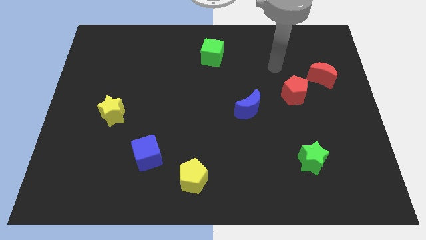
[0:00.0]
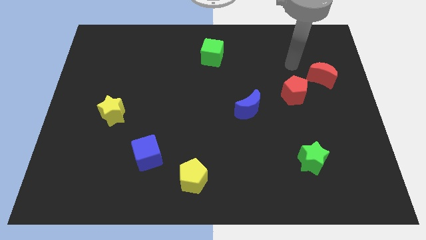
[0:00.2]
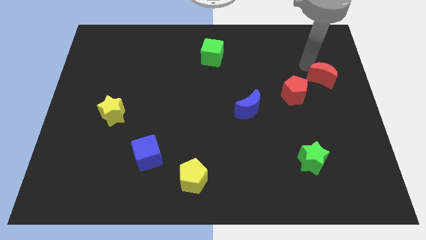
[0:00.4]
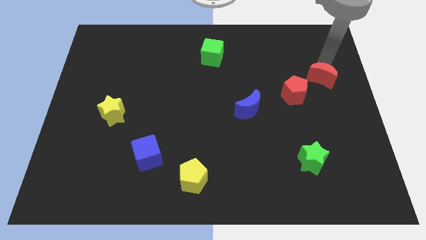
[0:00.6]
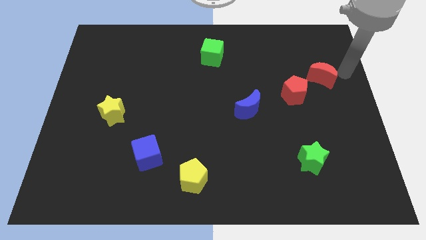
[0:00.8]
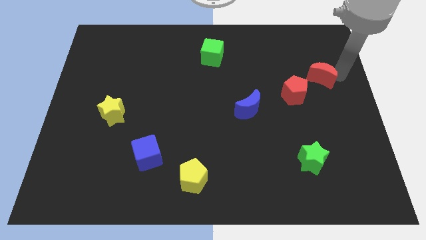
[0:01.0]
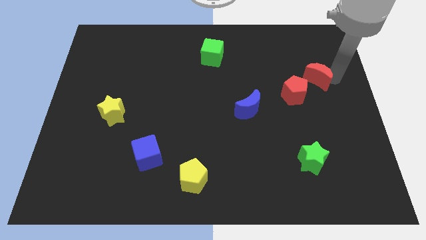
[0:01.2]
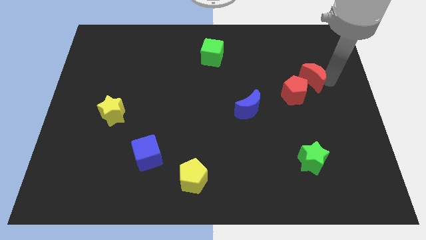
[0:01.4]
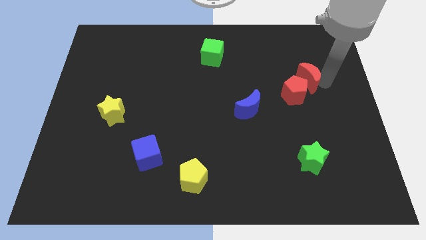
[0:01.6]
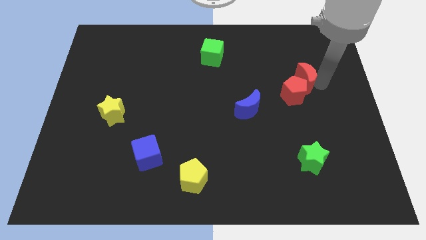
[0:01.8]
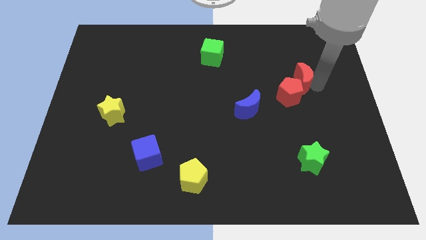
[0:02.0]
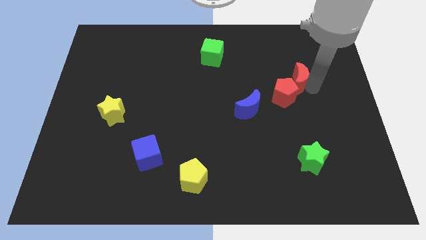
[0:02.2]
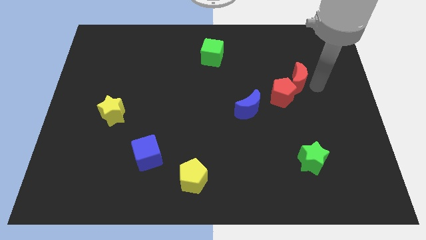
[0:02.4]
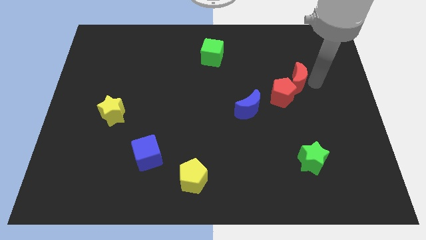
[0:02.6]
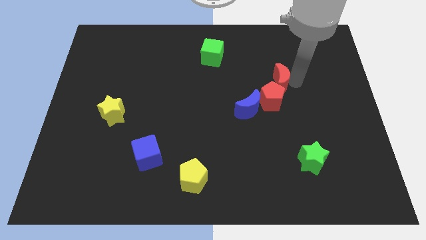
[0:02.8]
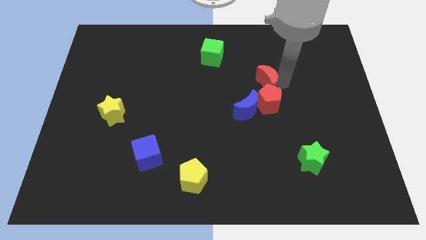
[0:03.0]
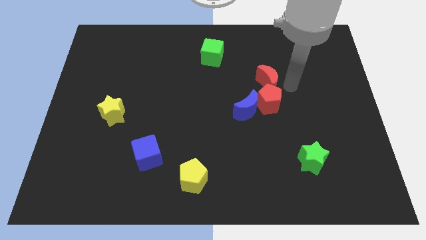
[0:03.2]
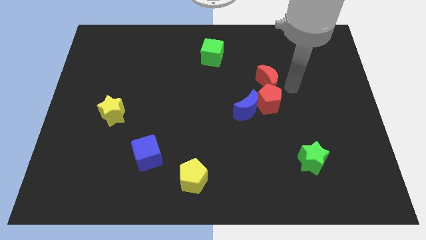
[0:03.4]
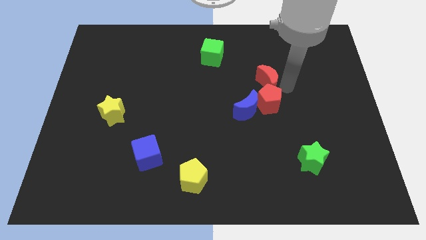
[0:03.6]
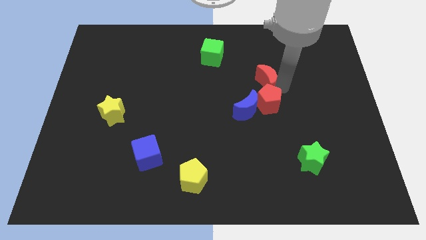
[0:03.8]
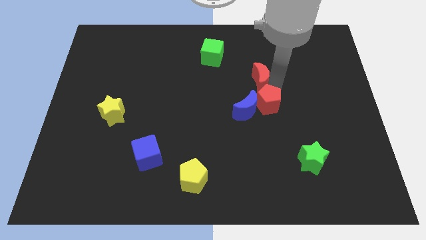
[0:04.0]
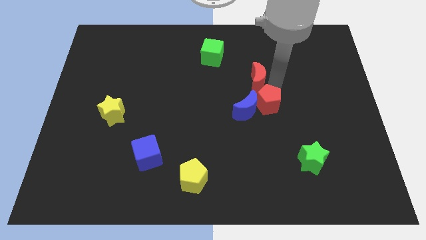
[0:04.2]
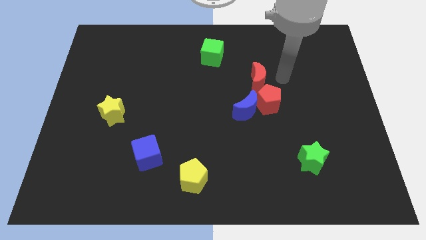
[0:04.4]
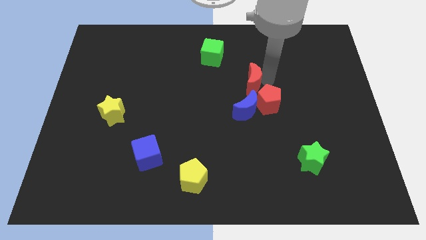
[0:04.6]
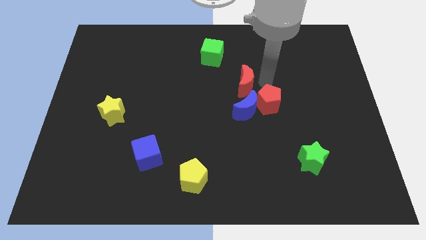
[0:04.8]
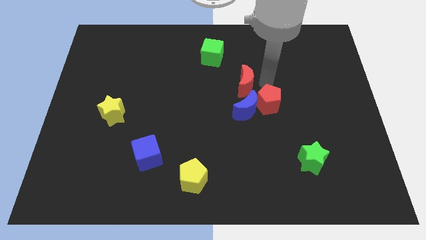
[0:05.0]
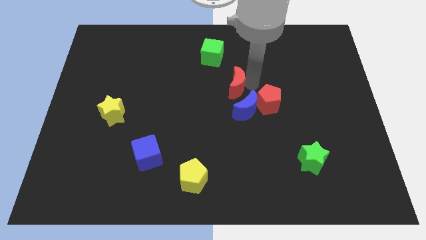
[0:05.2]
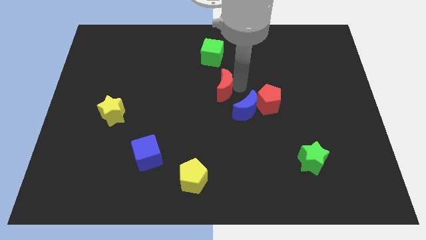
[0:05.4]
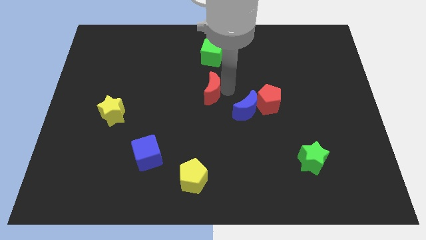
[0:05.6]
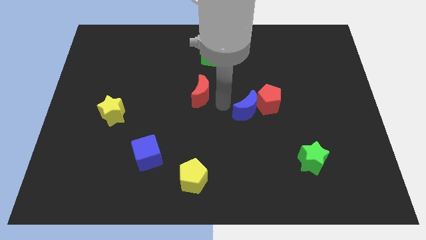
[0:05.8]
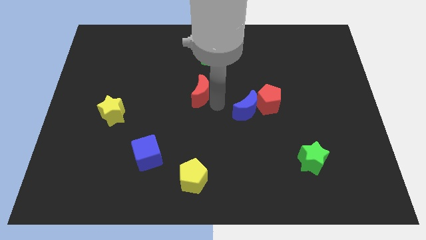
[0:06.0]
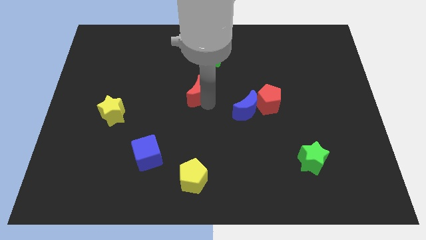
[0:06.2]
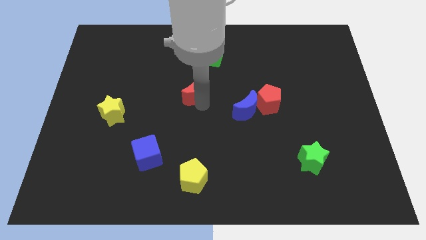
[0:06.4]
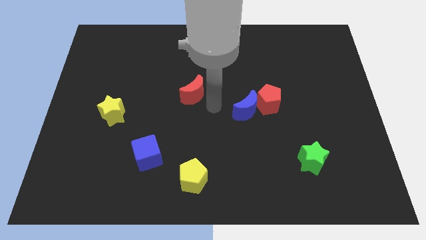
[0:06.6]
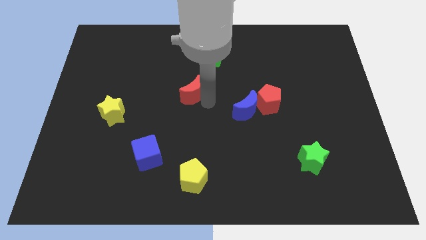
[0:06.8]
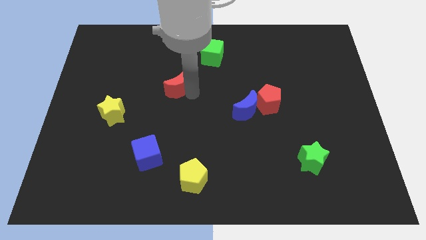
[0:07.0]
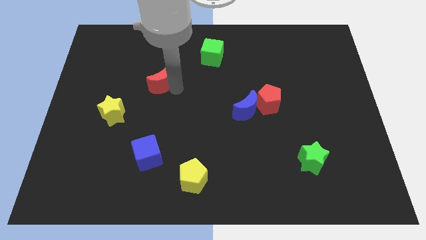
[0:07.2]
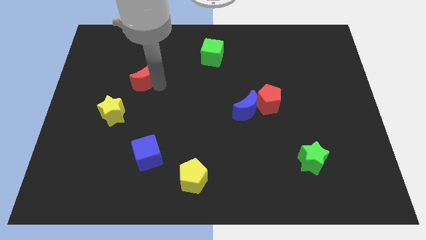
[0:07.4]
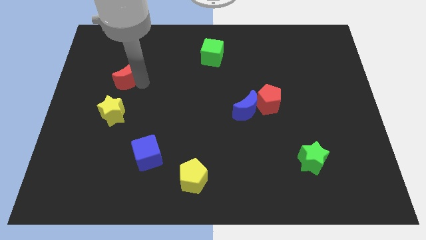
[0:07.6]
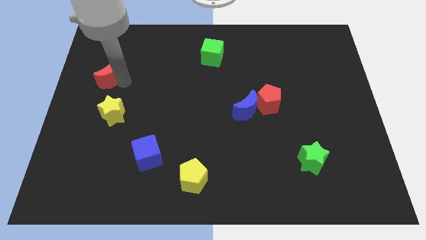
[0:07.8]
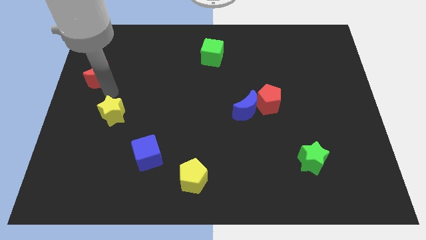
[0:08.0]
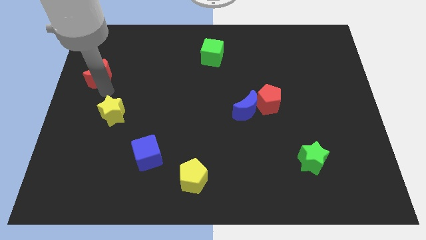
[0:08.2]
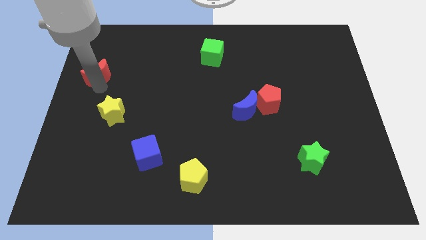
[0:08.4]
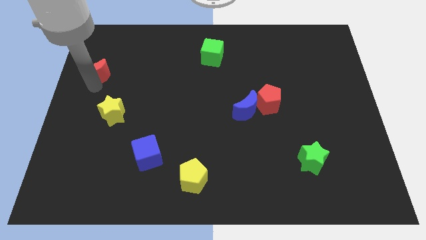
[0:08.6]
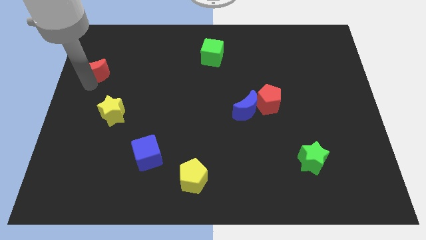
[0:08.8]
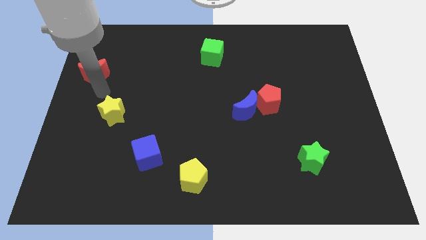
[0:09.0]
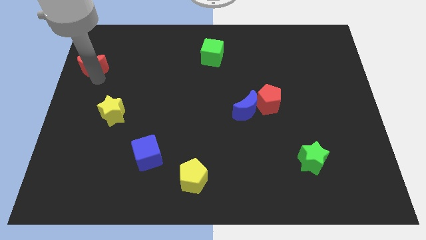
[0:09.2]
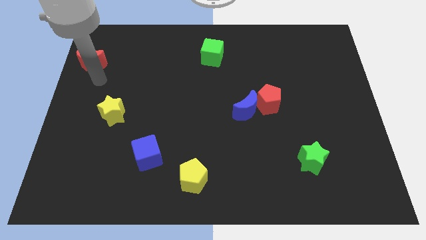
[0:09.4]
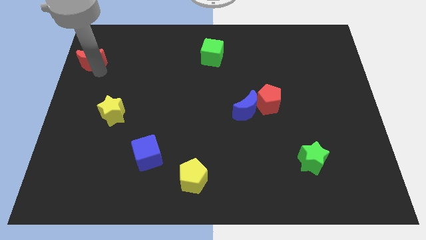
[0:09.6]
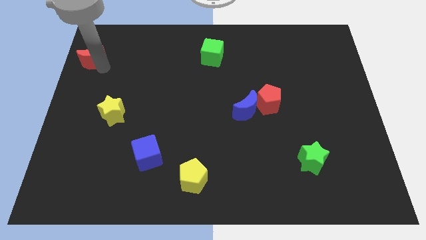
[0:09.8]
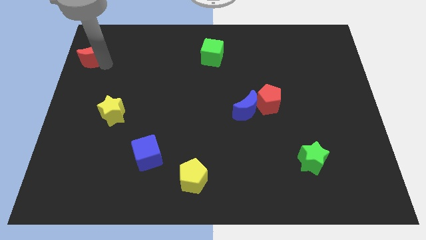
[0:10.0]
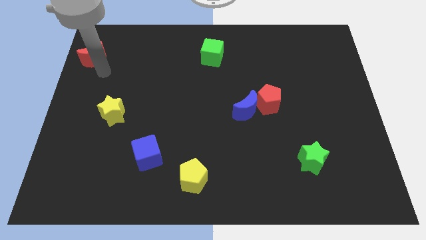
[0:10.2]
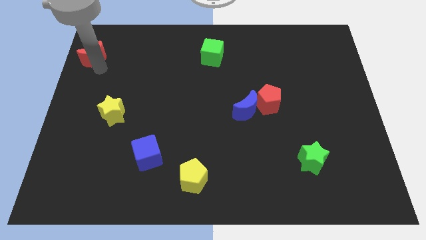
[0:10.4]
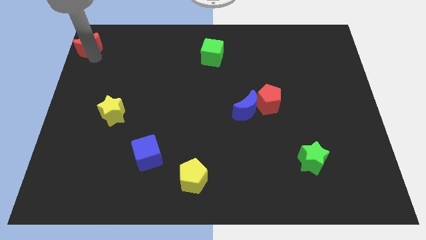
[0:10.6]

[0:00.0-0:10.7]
put the red moon to the top left of the board

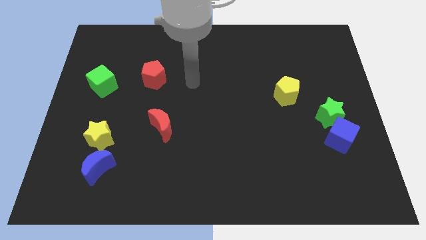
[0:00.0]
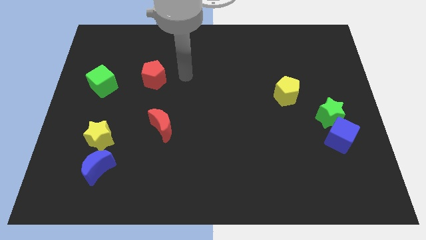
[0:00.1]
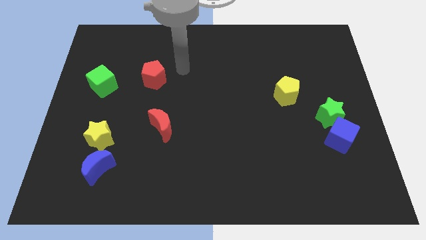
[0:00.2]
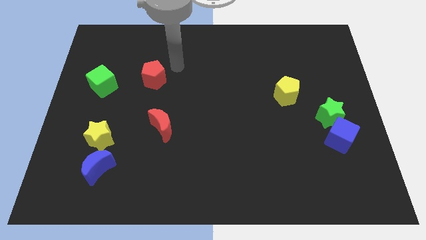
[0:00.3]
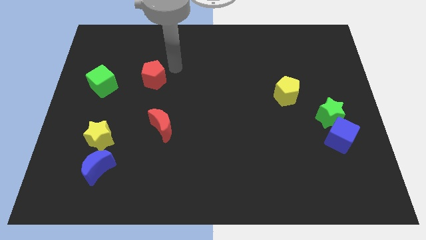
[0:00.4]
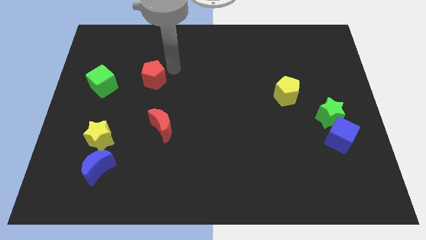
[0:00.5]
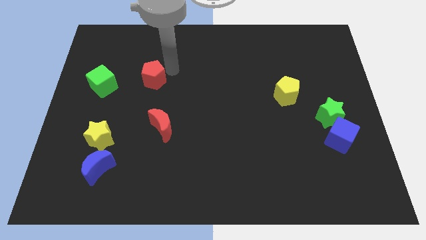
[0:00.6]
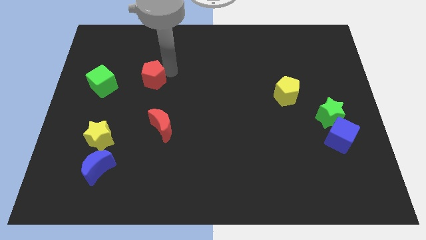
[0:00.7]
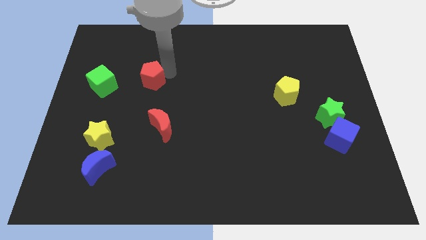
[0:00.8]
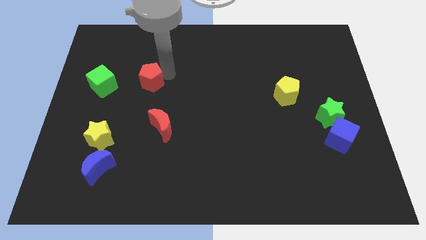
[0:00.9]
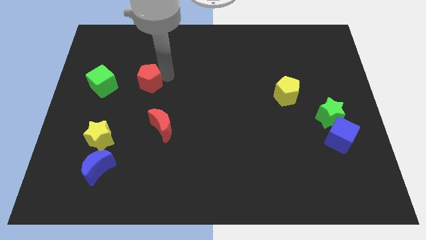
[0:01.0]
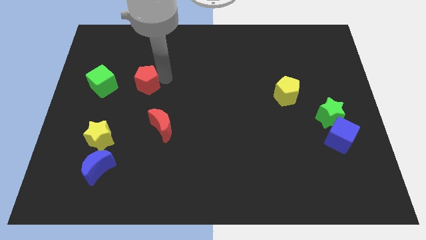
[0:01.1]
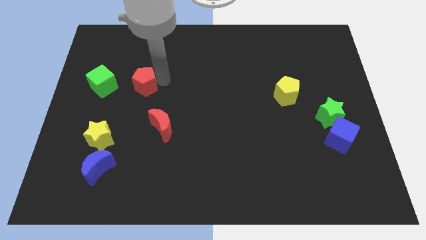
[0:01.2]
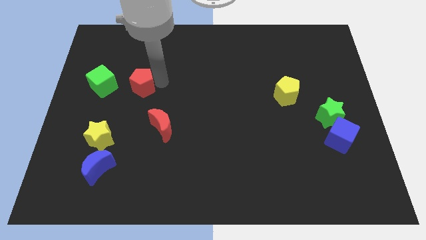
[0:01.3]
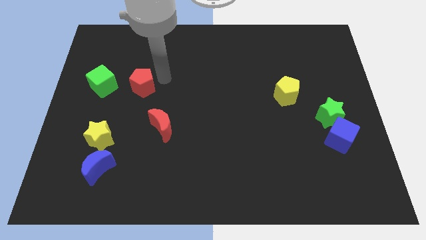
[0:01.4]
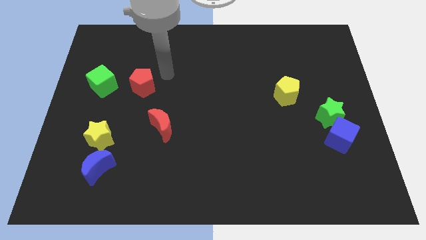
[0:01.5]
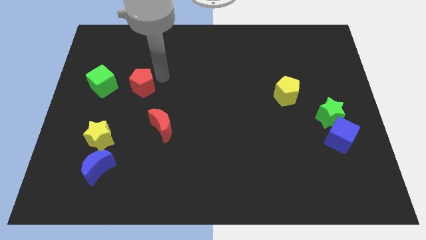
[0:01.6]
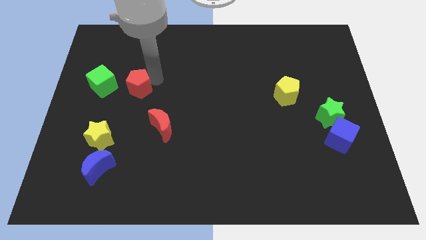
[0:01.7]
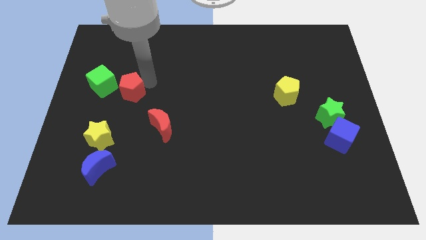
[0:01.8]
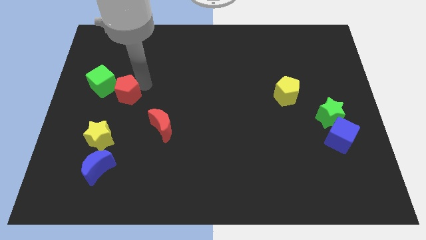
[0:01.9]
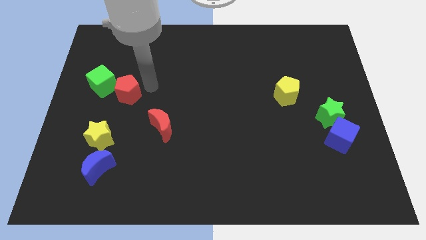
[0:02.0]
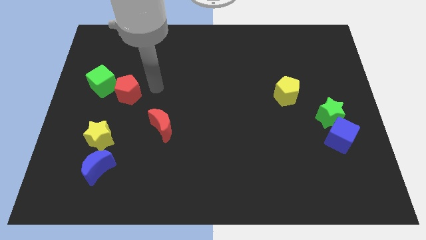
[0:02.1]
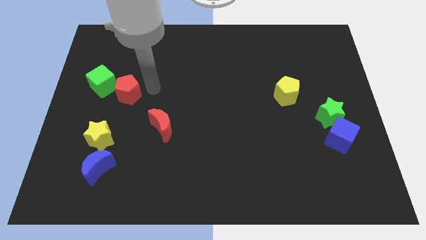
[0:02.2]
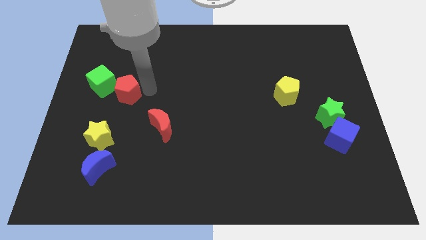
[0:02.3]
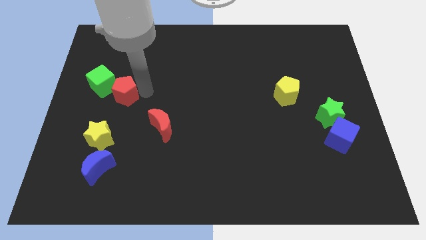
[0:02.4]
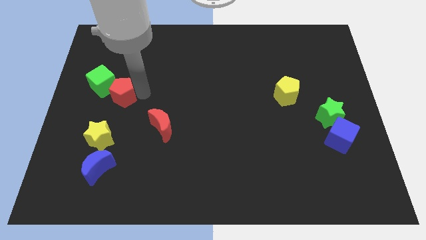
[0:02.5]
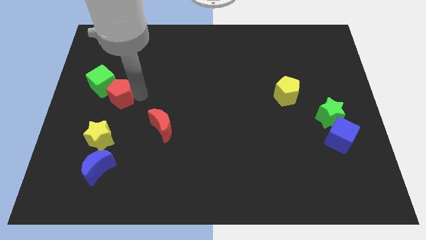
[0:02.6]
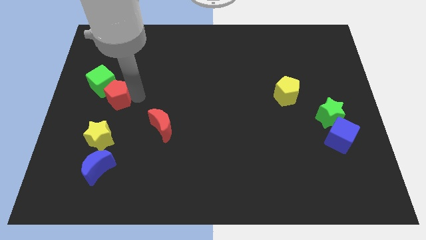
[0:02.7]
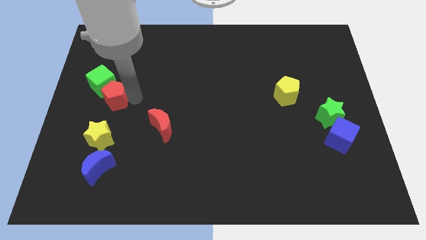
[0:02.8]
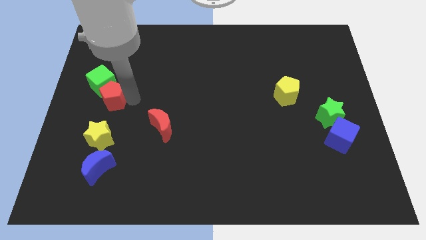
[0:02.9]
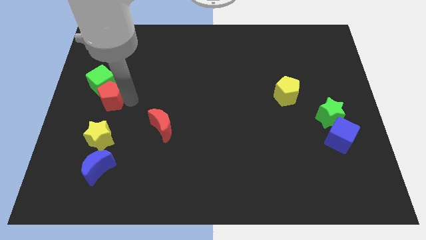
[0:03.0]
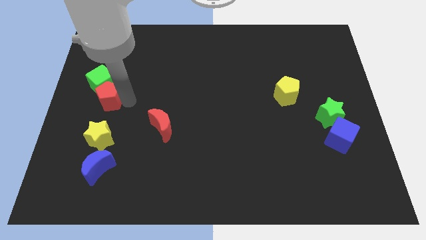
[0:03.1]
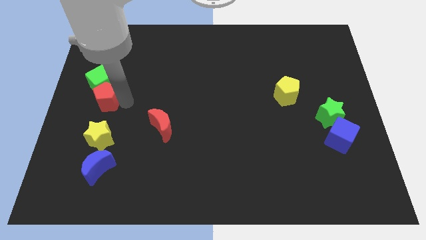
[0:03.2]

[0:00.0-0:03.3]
push the red pentagon to the center left
